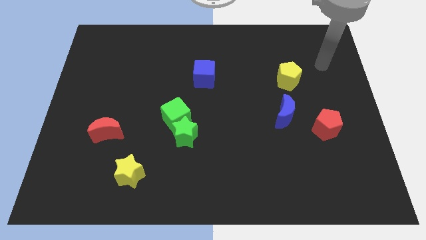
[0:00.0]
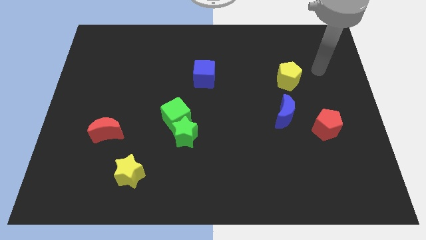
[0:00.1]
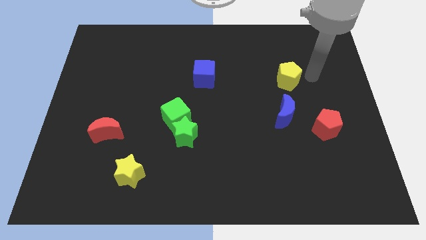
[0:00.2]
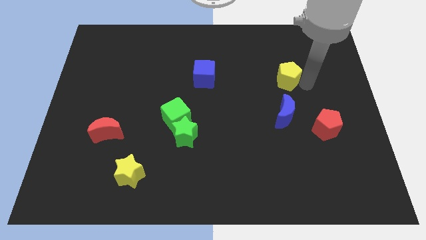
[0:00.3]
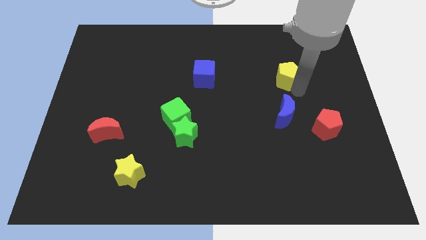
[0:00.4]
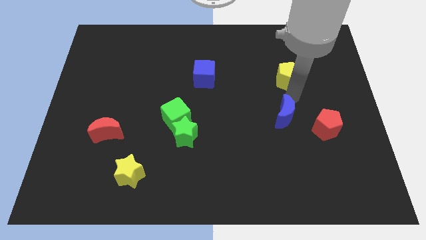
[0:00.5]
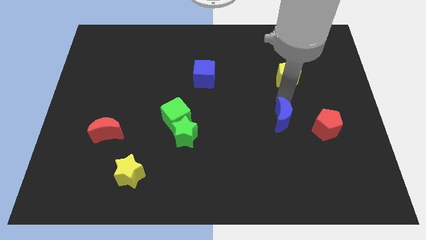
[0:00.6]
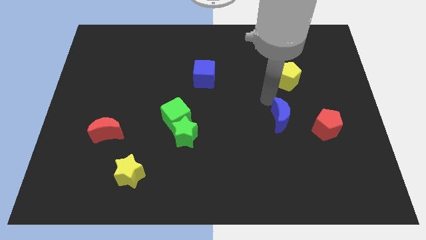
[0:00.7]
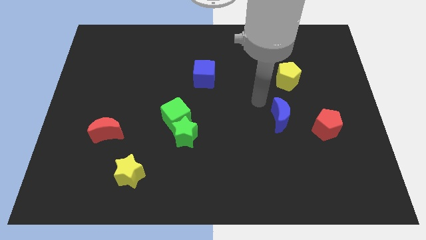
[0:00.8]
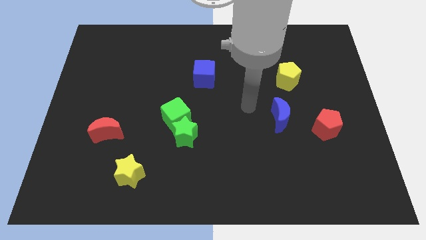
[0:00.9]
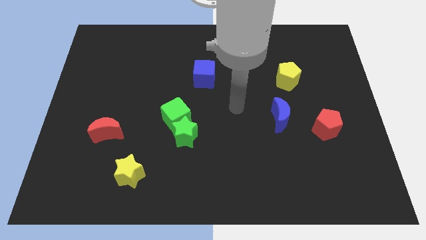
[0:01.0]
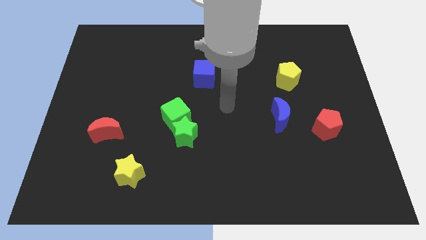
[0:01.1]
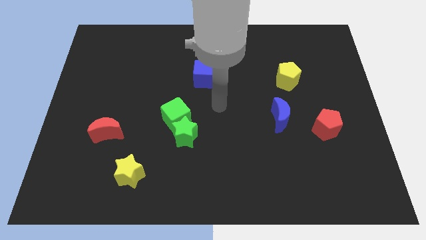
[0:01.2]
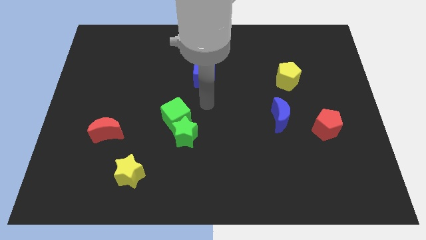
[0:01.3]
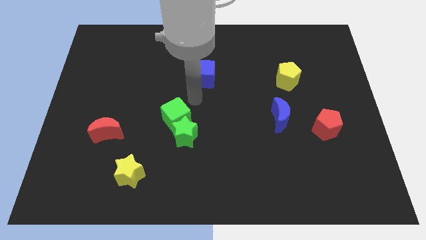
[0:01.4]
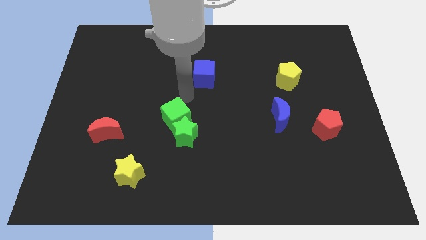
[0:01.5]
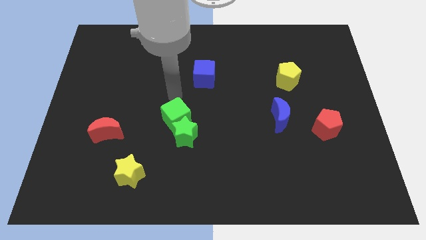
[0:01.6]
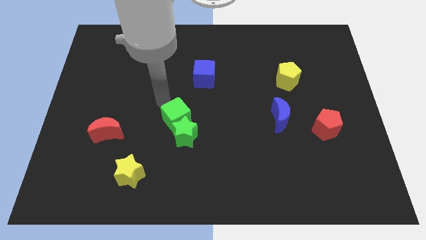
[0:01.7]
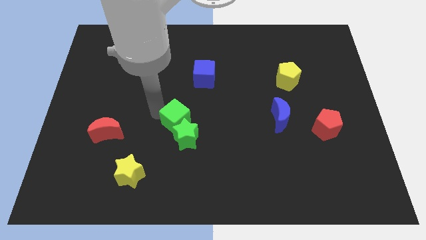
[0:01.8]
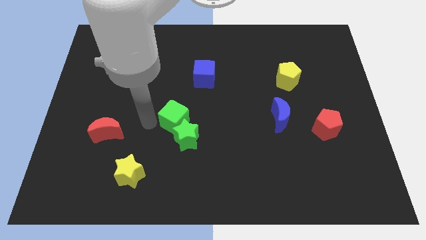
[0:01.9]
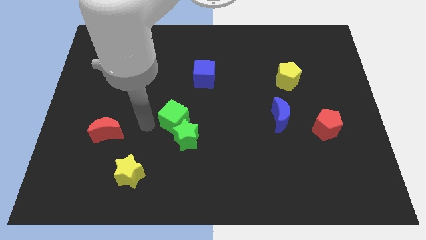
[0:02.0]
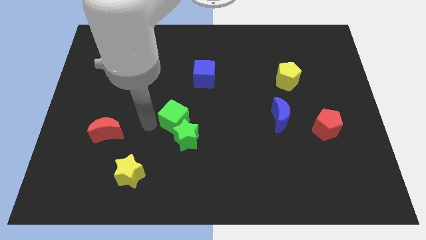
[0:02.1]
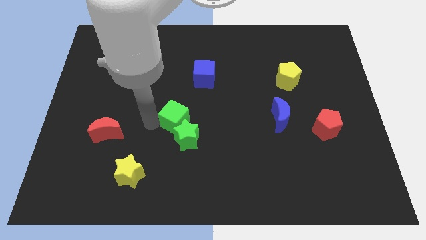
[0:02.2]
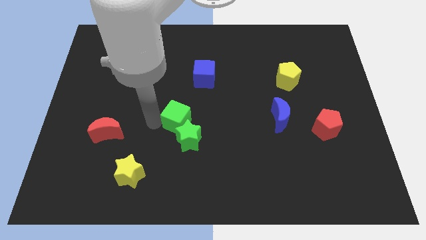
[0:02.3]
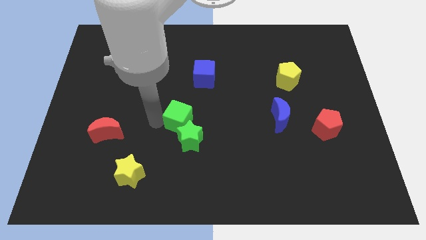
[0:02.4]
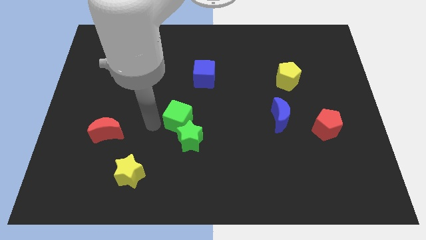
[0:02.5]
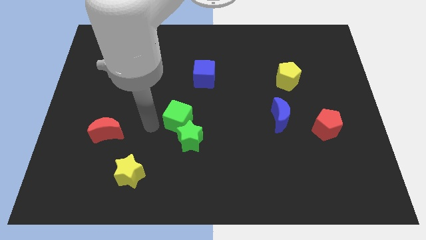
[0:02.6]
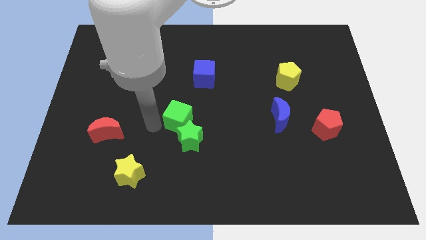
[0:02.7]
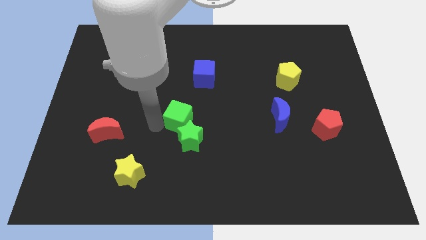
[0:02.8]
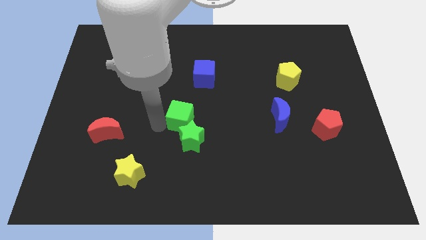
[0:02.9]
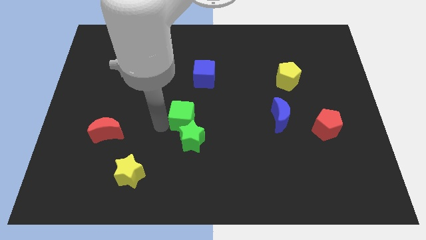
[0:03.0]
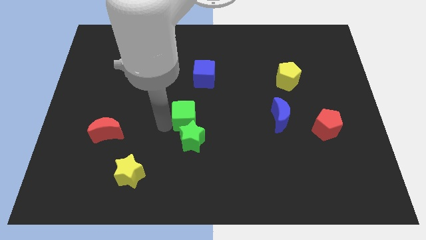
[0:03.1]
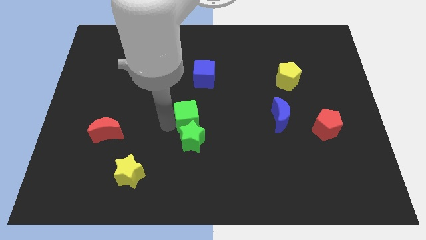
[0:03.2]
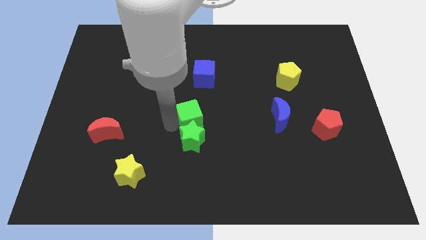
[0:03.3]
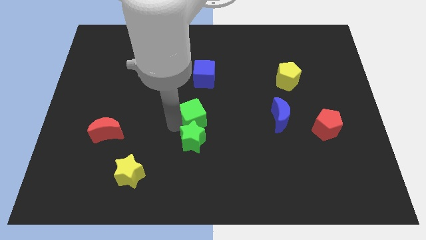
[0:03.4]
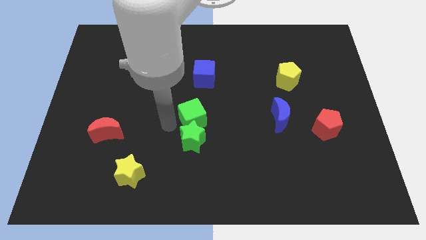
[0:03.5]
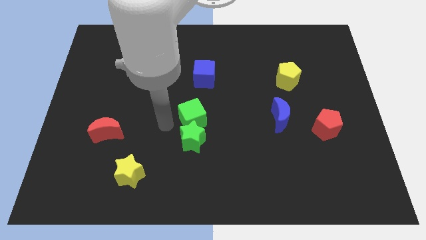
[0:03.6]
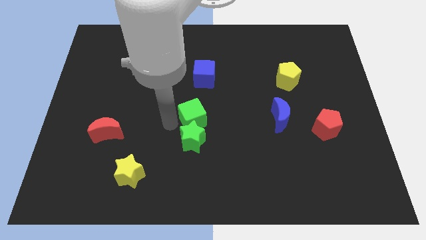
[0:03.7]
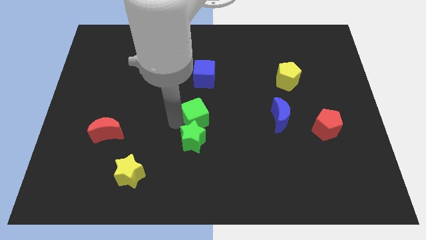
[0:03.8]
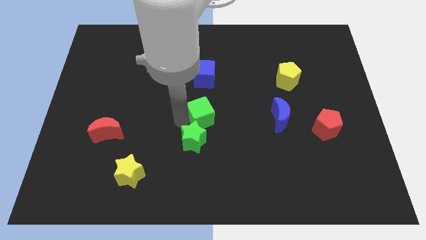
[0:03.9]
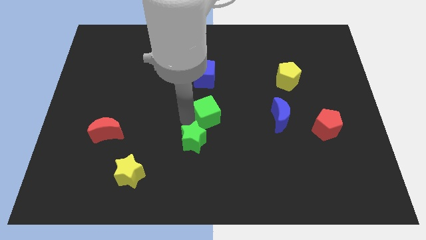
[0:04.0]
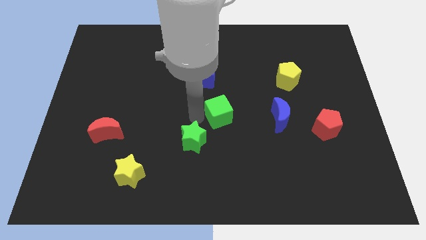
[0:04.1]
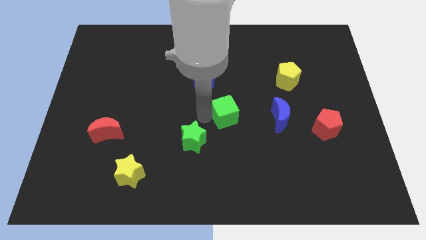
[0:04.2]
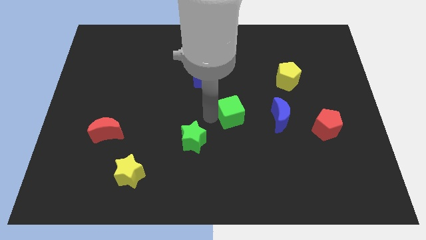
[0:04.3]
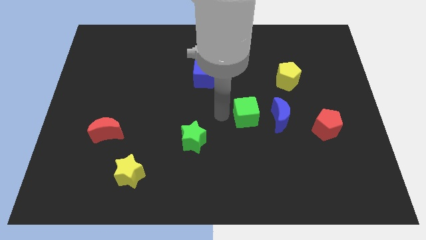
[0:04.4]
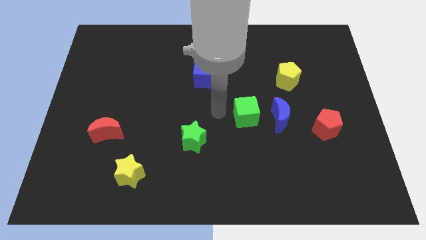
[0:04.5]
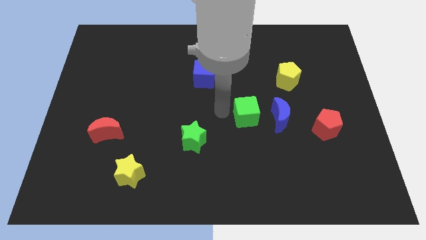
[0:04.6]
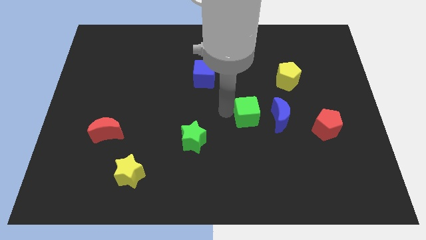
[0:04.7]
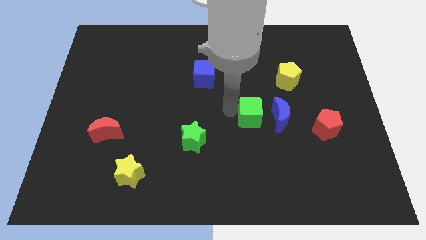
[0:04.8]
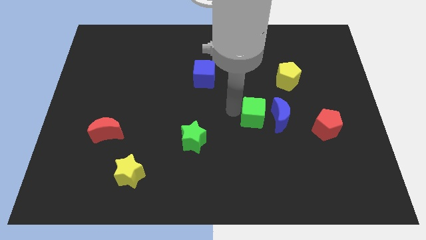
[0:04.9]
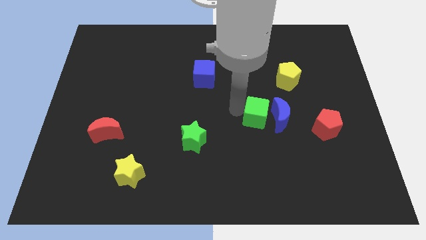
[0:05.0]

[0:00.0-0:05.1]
put the green cube to the blue moon
